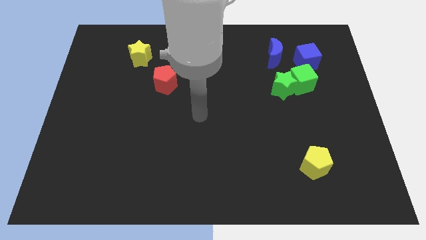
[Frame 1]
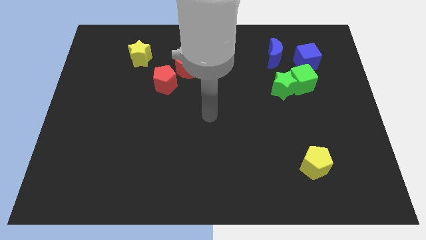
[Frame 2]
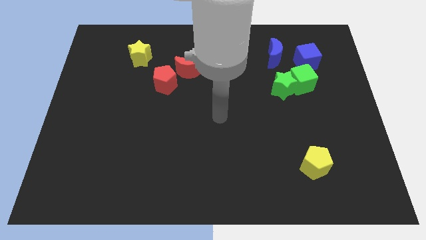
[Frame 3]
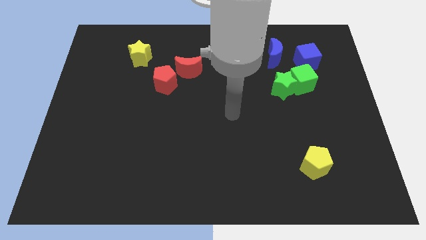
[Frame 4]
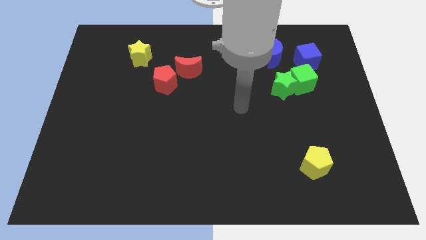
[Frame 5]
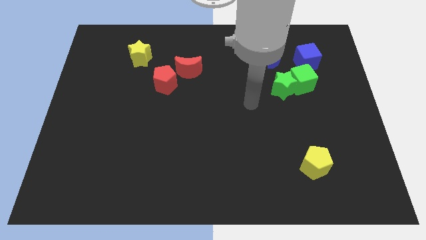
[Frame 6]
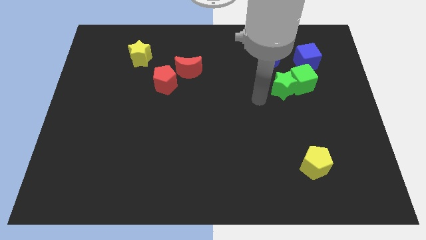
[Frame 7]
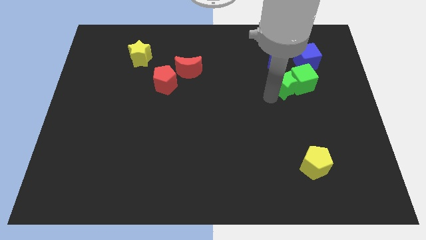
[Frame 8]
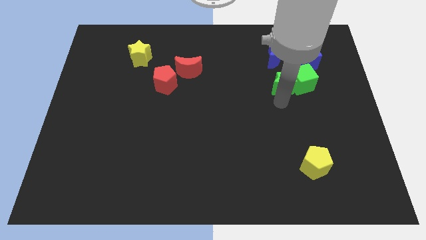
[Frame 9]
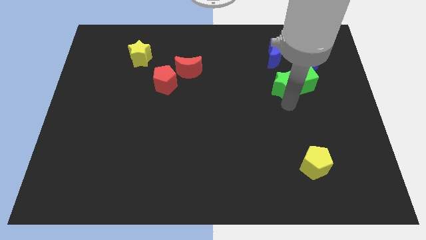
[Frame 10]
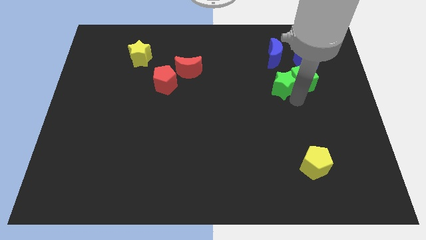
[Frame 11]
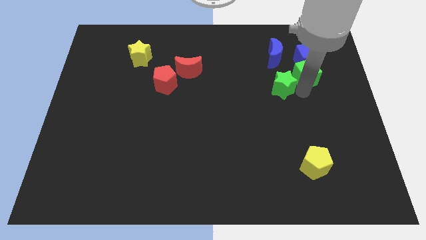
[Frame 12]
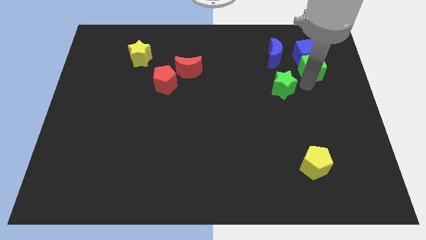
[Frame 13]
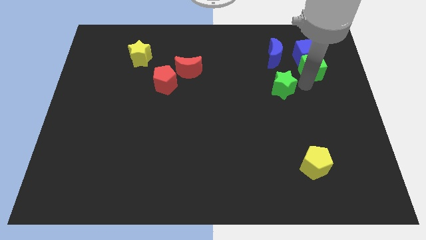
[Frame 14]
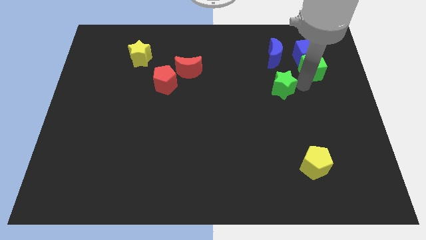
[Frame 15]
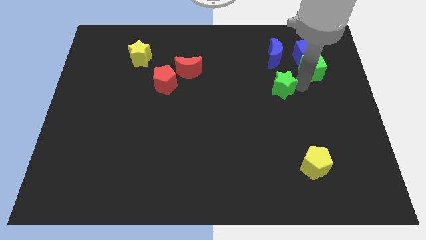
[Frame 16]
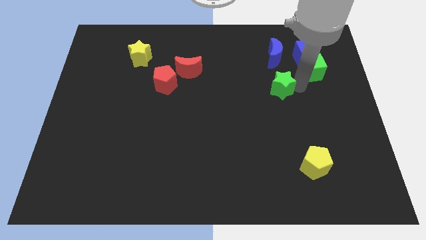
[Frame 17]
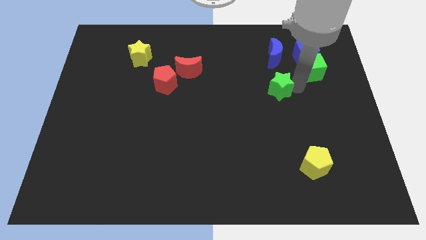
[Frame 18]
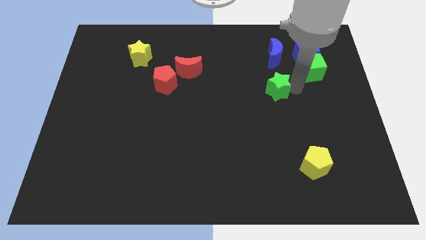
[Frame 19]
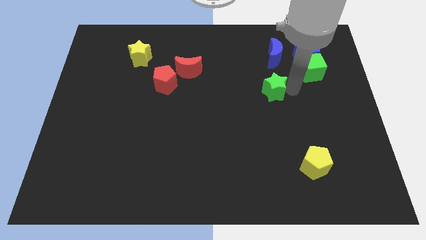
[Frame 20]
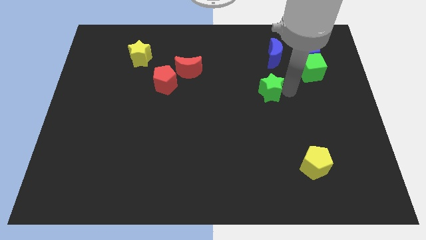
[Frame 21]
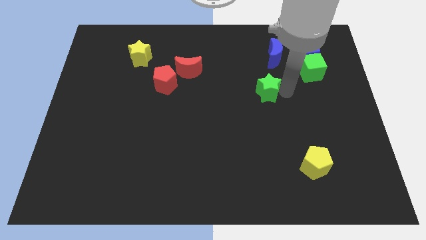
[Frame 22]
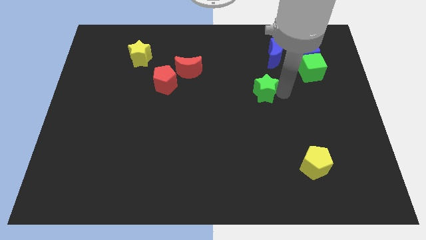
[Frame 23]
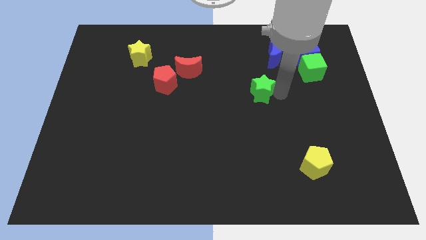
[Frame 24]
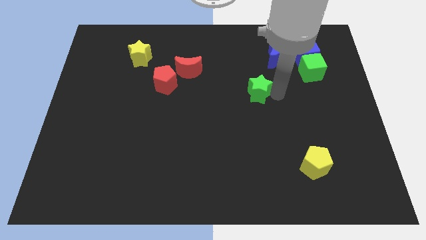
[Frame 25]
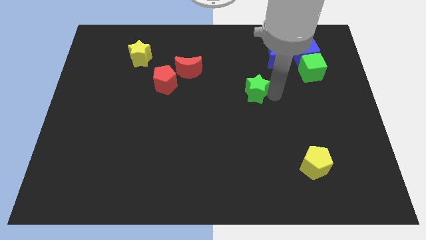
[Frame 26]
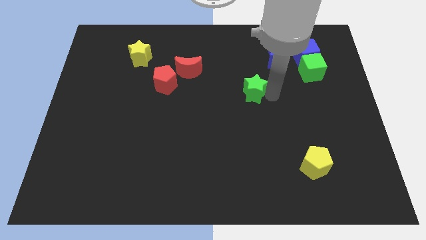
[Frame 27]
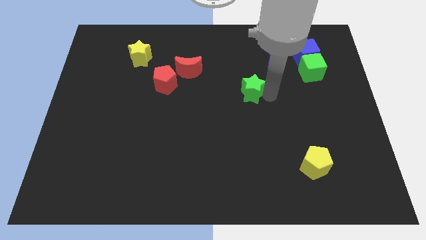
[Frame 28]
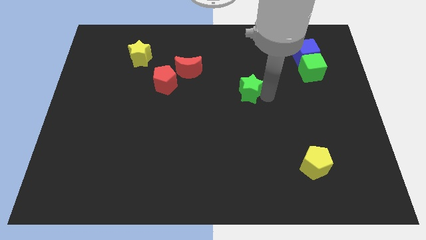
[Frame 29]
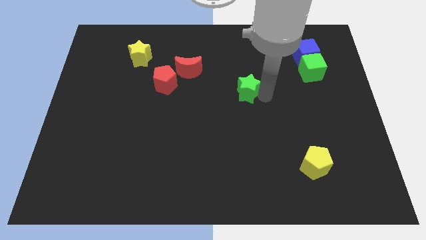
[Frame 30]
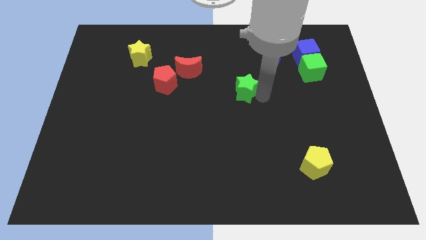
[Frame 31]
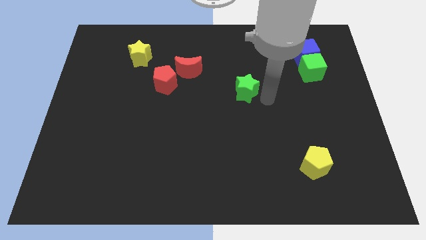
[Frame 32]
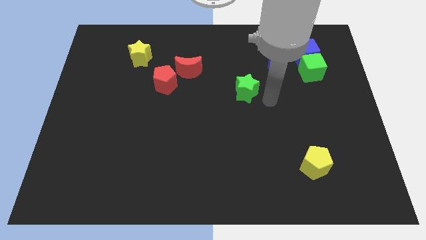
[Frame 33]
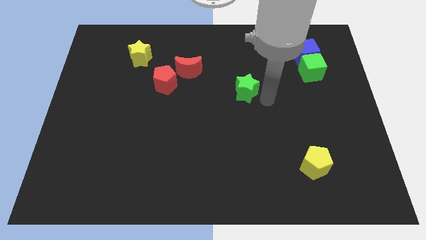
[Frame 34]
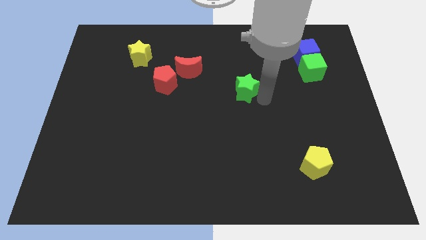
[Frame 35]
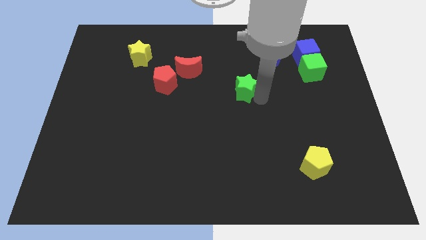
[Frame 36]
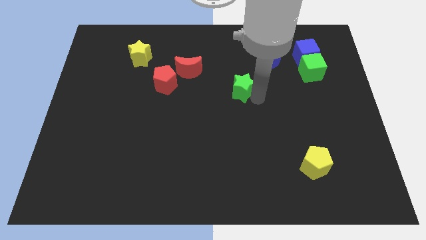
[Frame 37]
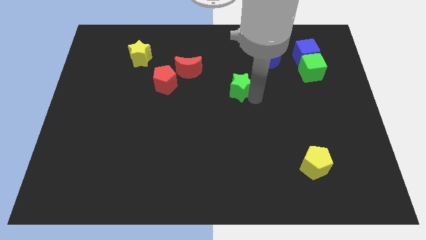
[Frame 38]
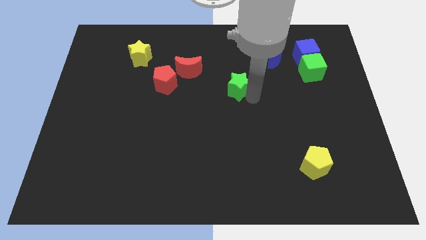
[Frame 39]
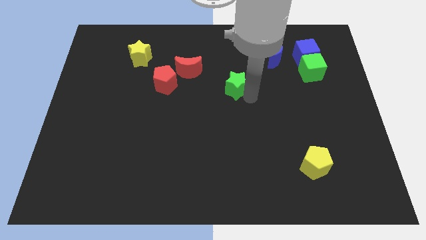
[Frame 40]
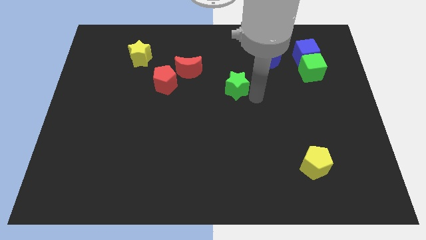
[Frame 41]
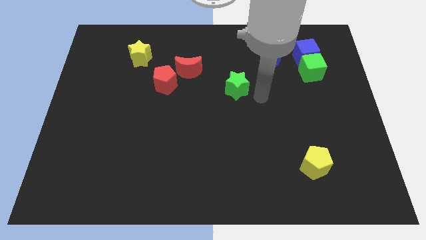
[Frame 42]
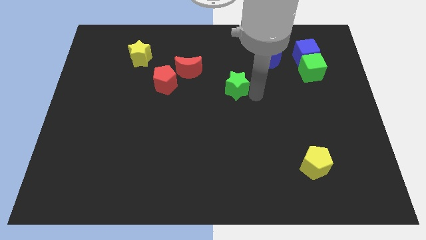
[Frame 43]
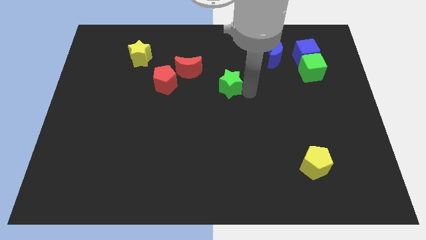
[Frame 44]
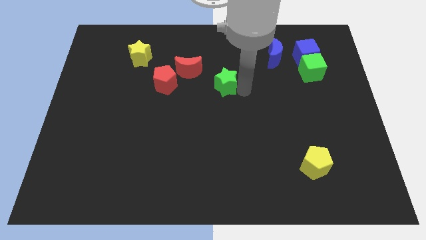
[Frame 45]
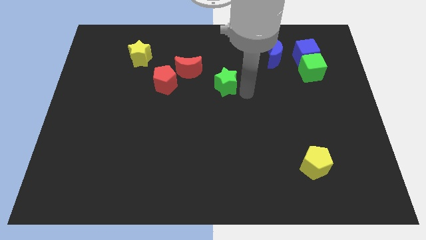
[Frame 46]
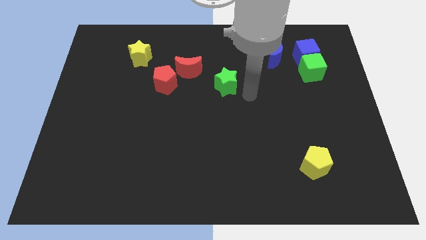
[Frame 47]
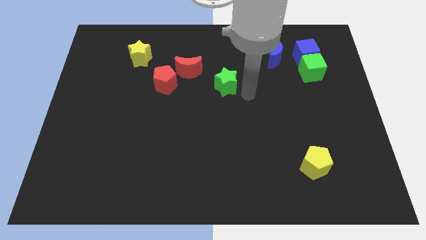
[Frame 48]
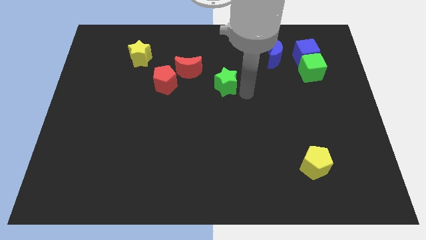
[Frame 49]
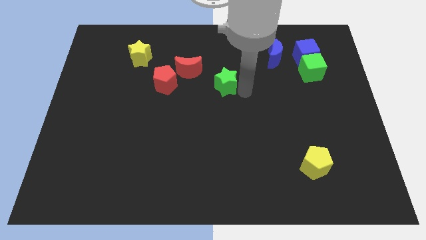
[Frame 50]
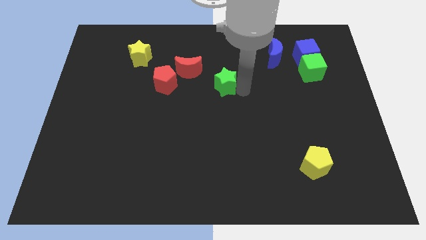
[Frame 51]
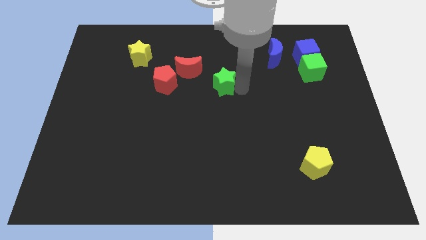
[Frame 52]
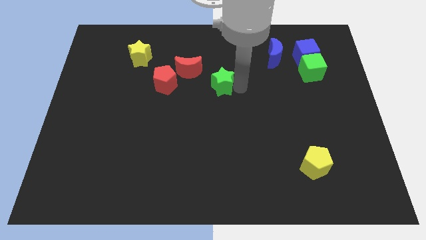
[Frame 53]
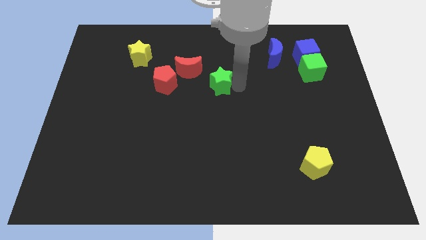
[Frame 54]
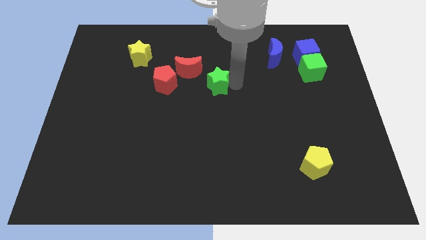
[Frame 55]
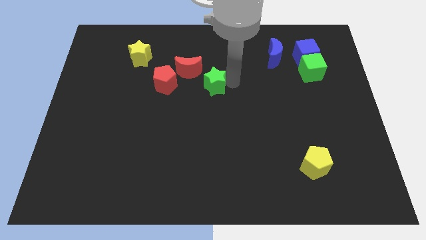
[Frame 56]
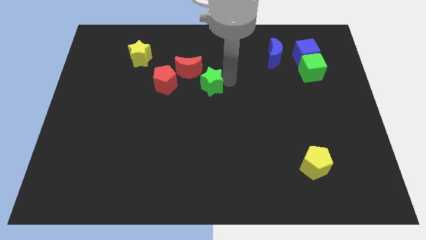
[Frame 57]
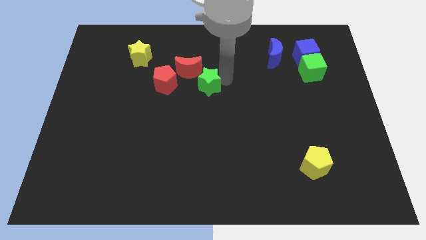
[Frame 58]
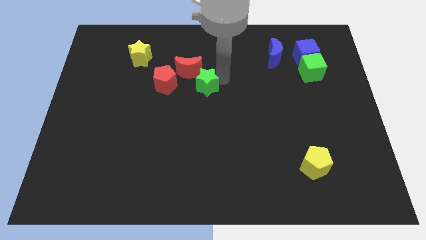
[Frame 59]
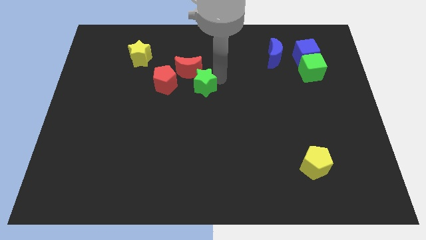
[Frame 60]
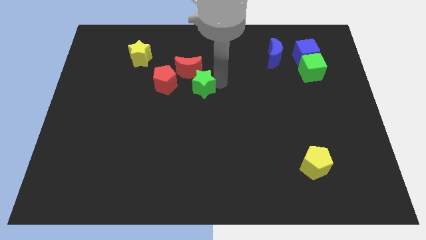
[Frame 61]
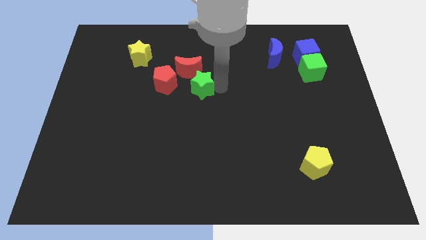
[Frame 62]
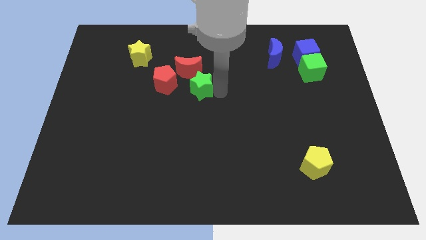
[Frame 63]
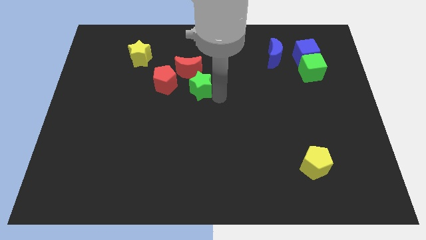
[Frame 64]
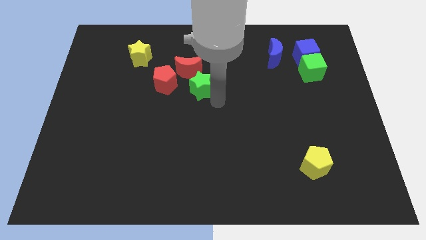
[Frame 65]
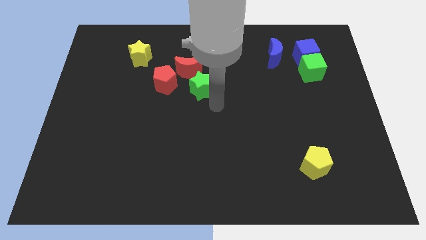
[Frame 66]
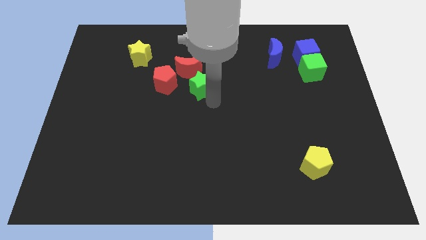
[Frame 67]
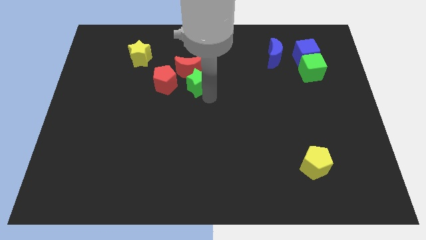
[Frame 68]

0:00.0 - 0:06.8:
put the green star to the red moon
